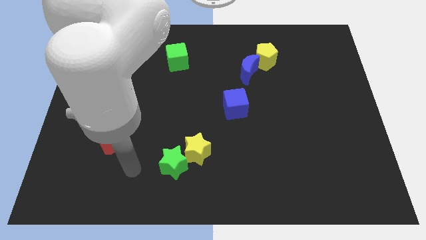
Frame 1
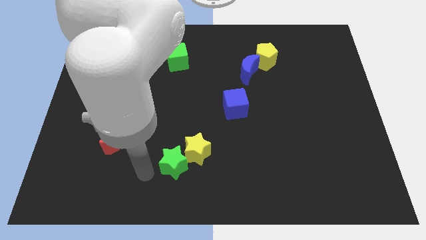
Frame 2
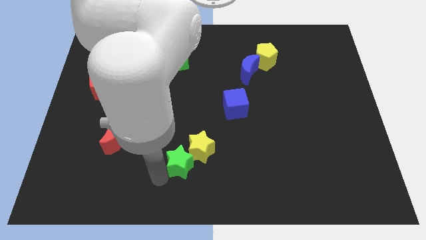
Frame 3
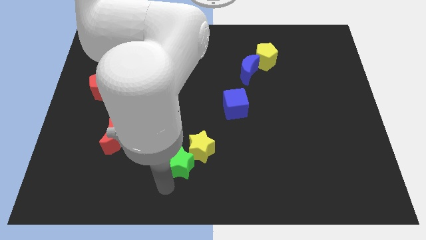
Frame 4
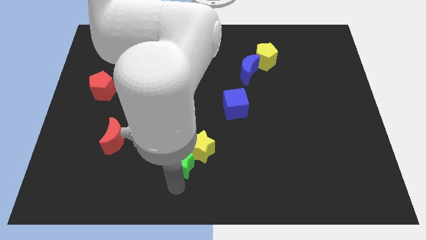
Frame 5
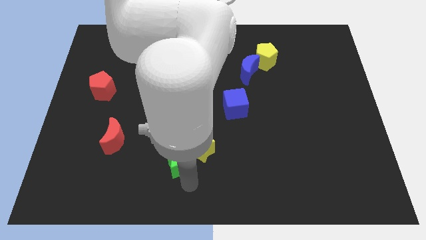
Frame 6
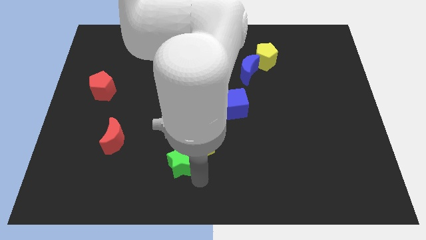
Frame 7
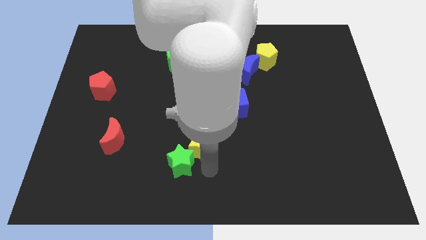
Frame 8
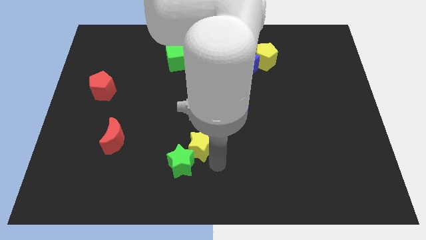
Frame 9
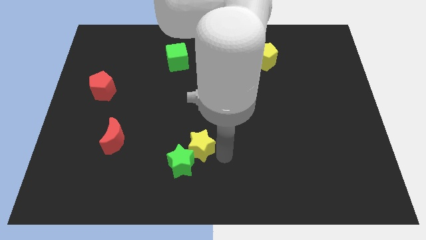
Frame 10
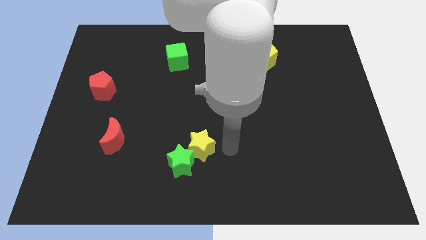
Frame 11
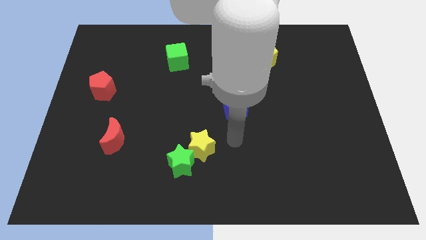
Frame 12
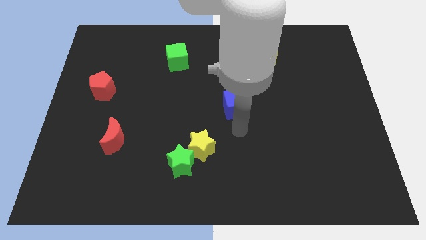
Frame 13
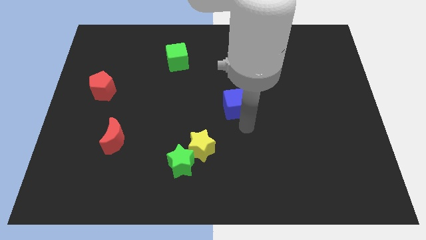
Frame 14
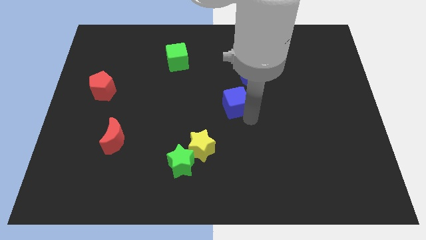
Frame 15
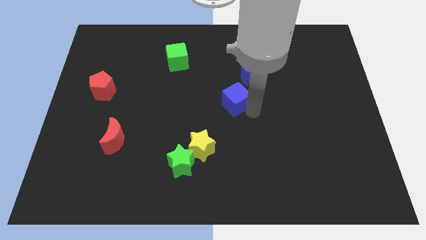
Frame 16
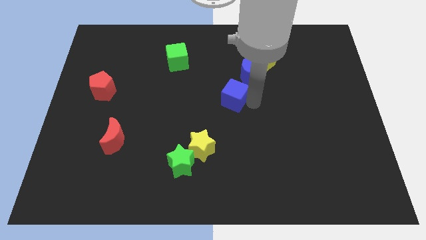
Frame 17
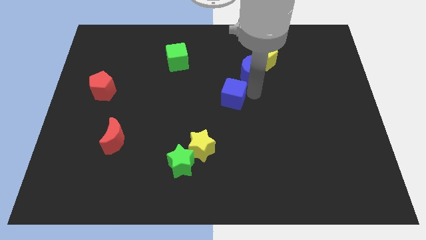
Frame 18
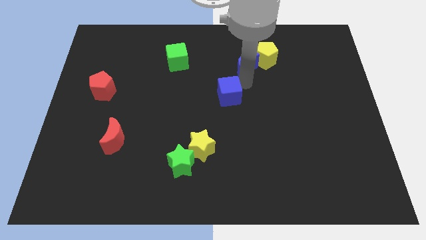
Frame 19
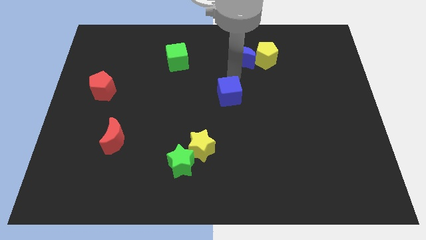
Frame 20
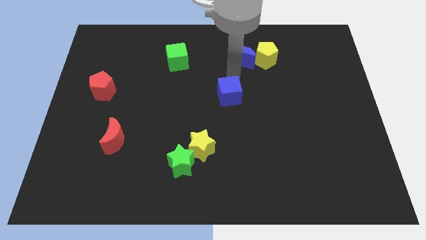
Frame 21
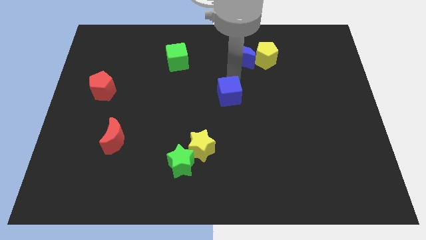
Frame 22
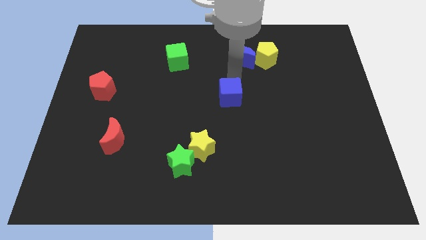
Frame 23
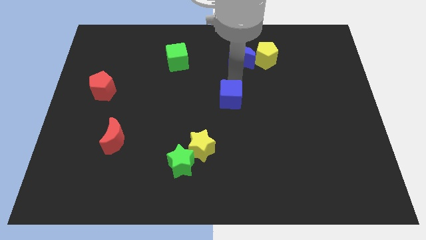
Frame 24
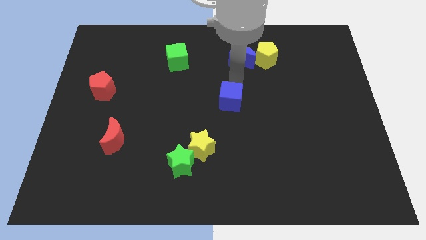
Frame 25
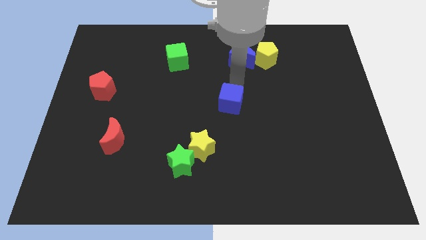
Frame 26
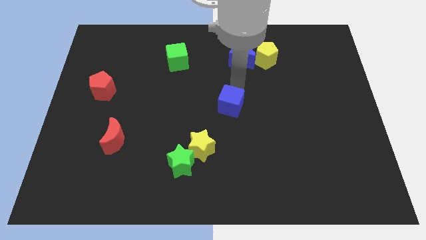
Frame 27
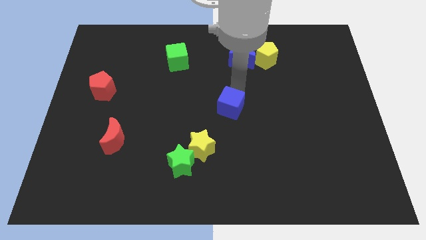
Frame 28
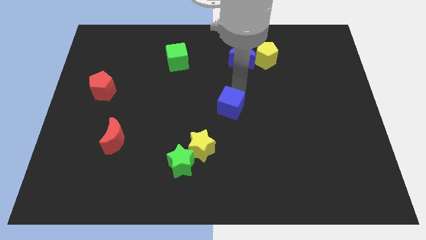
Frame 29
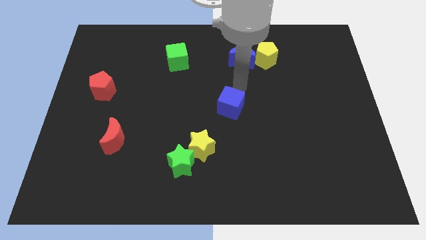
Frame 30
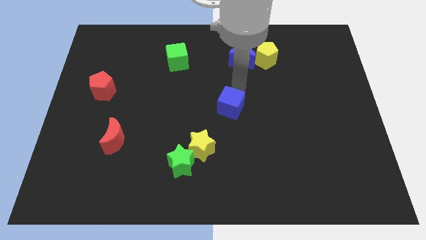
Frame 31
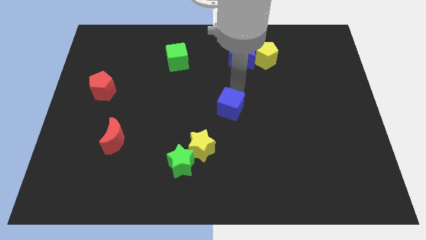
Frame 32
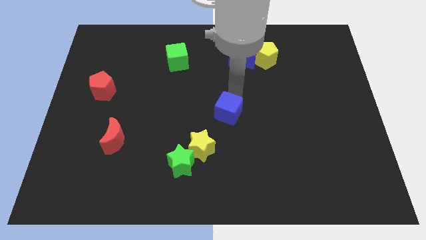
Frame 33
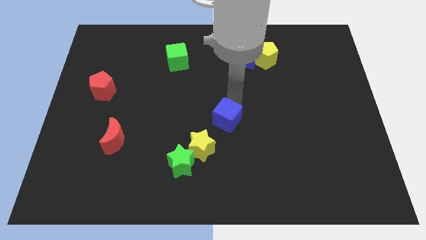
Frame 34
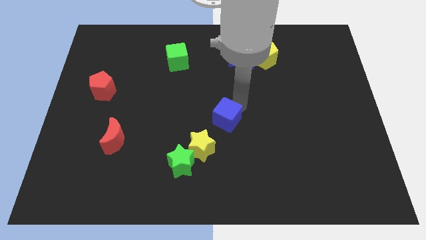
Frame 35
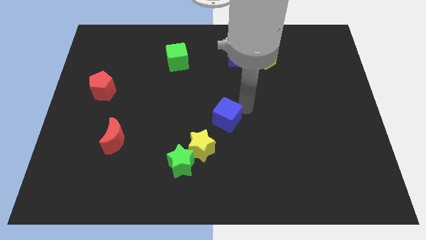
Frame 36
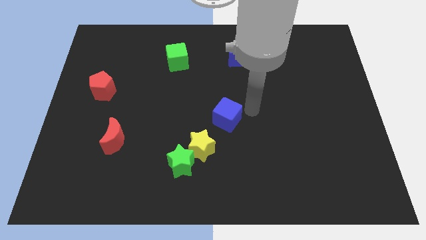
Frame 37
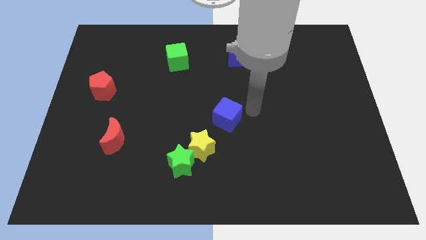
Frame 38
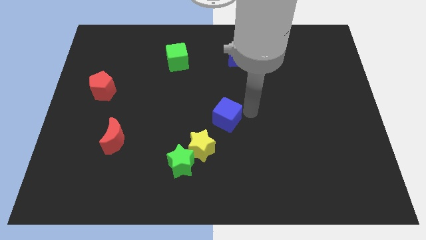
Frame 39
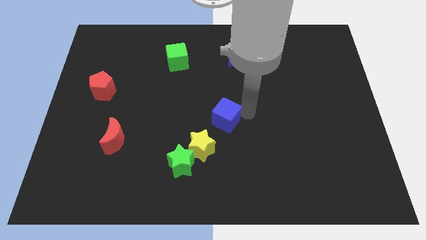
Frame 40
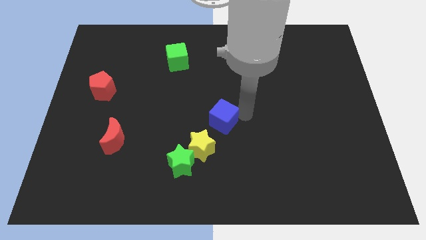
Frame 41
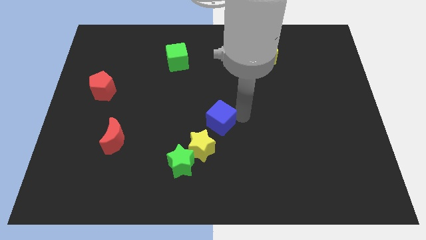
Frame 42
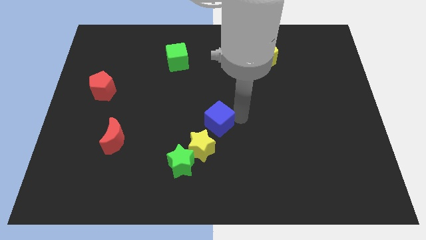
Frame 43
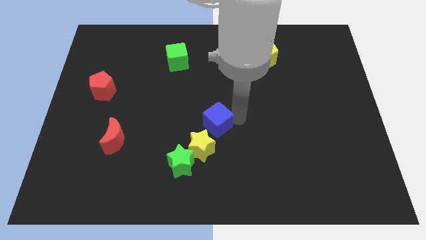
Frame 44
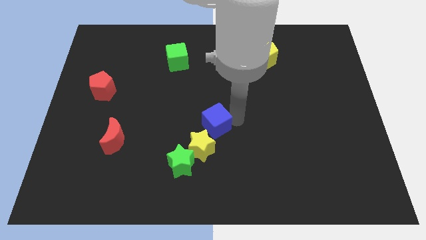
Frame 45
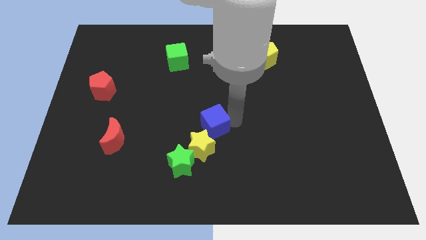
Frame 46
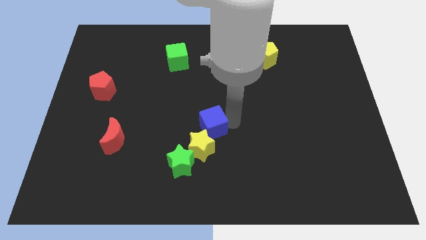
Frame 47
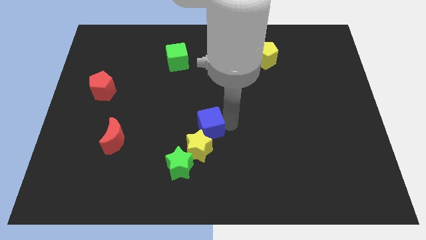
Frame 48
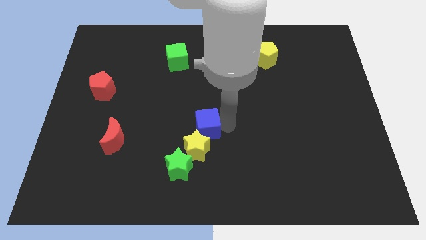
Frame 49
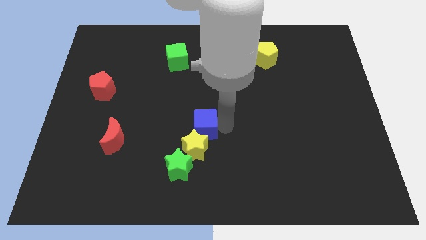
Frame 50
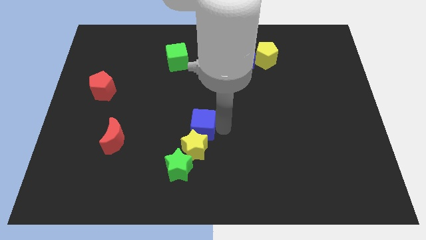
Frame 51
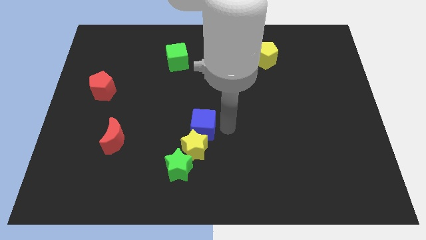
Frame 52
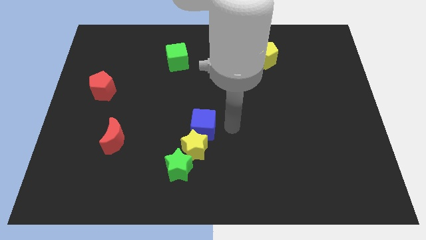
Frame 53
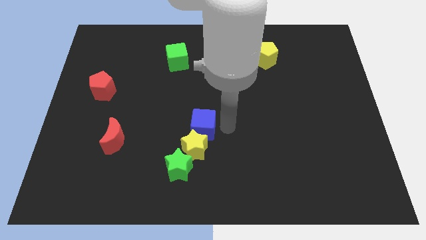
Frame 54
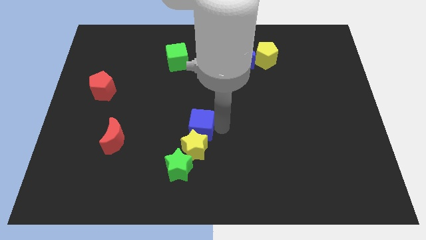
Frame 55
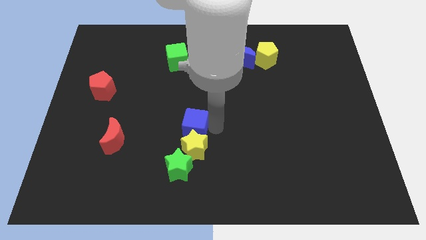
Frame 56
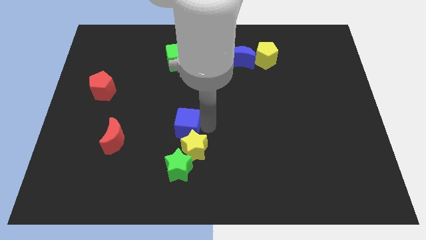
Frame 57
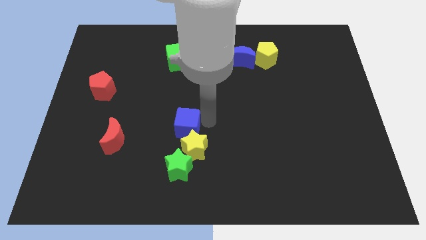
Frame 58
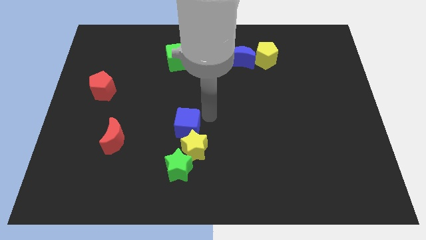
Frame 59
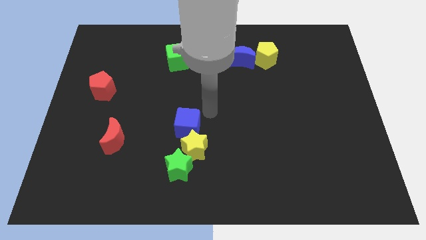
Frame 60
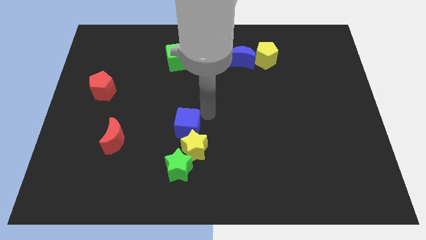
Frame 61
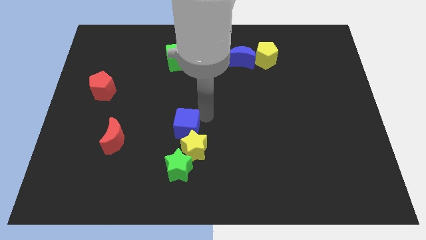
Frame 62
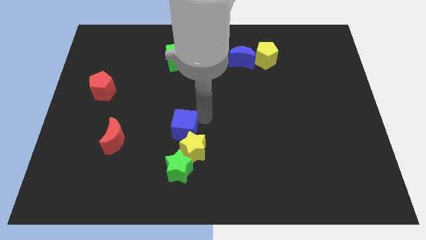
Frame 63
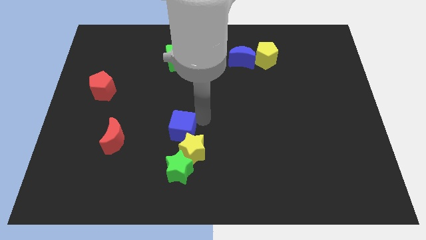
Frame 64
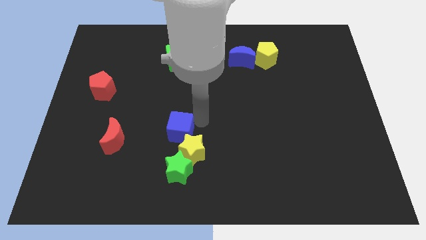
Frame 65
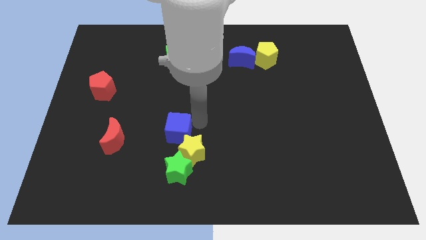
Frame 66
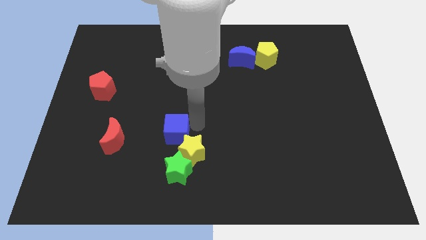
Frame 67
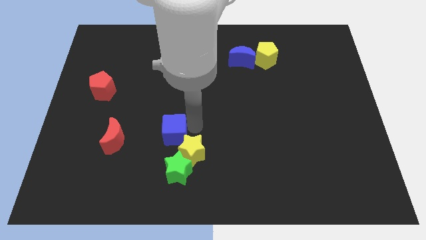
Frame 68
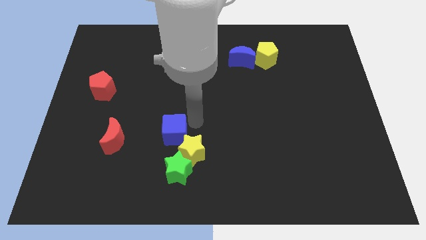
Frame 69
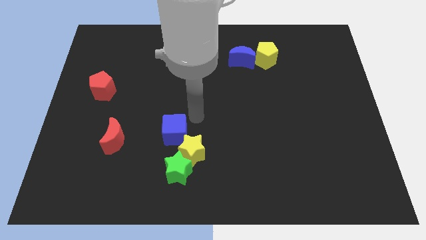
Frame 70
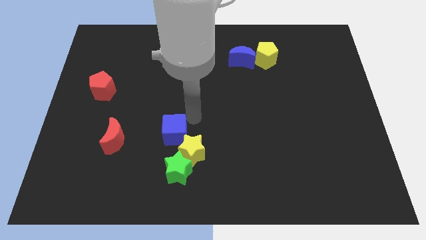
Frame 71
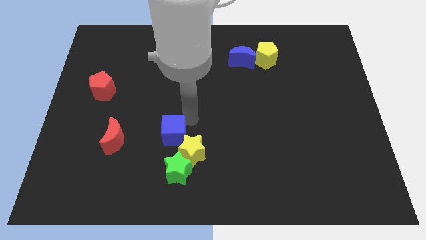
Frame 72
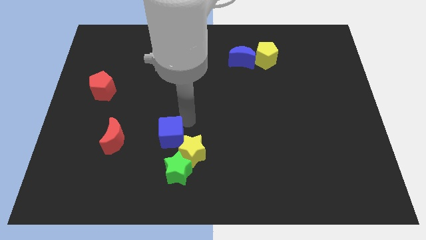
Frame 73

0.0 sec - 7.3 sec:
move the blue cube to the top left side of the green star

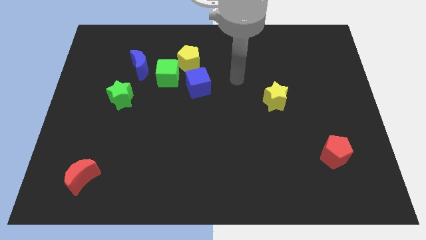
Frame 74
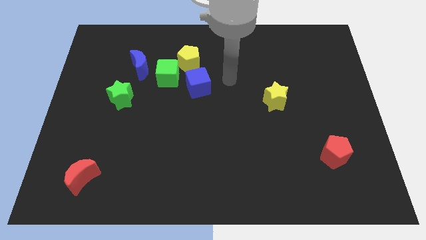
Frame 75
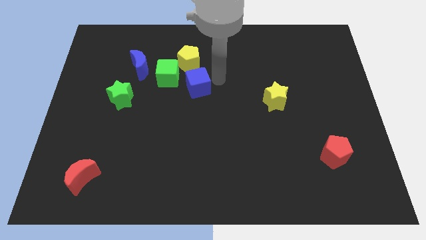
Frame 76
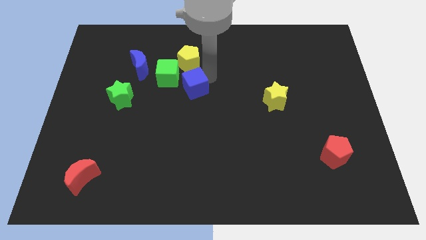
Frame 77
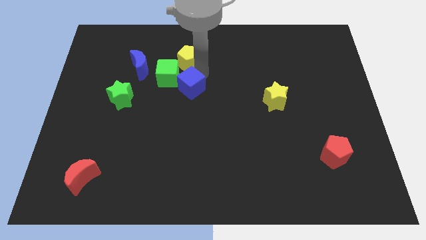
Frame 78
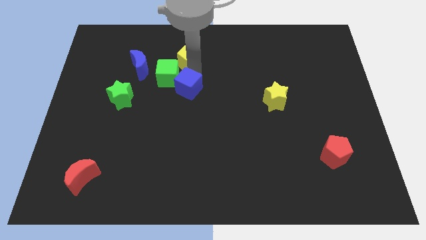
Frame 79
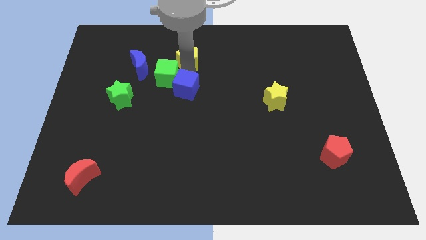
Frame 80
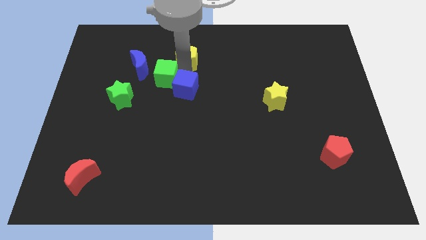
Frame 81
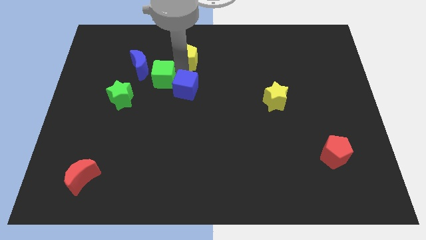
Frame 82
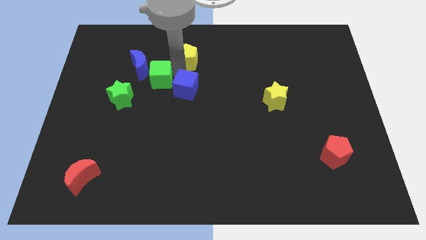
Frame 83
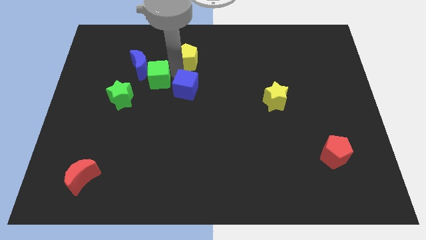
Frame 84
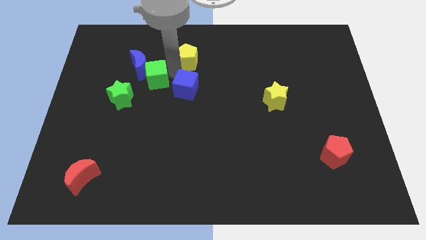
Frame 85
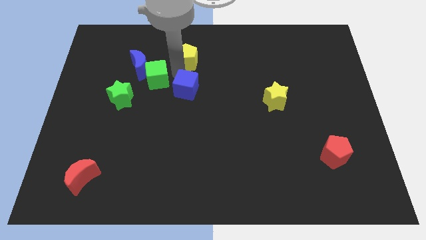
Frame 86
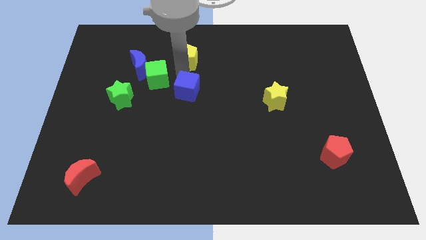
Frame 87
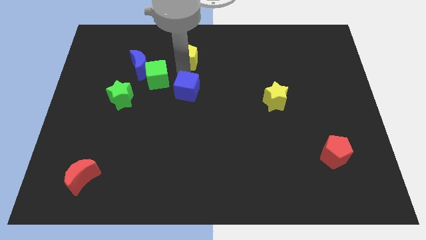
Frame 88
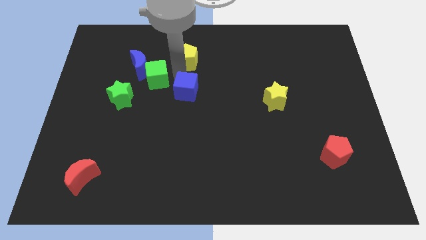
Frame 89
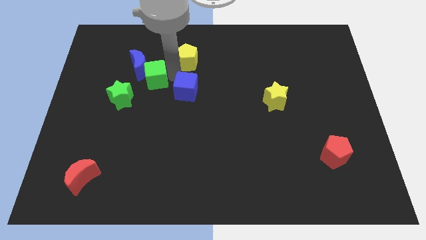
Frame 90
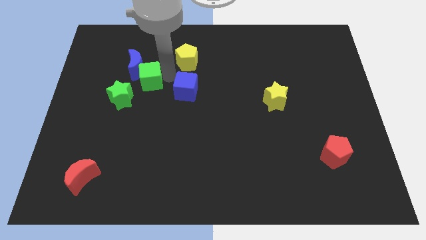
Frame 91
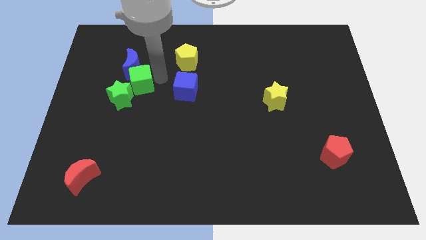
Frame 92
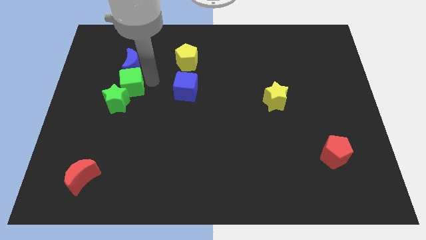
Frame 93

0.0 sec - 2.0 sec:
put the green cube to the bottom left side of the blue moon
